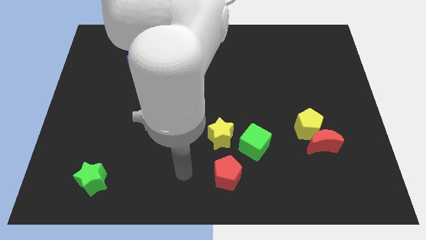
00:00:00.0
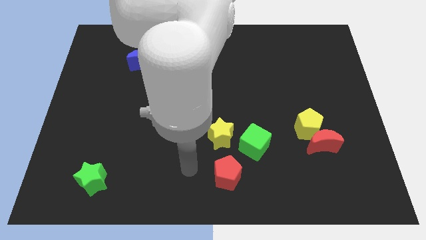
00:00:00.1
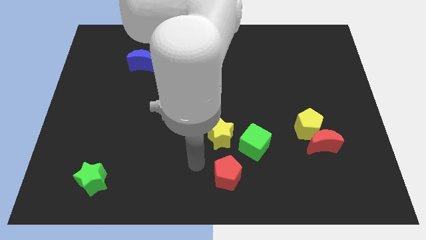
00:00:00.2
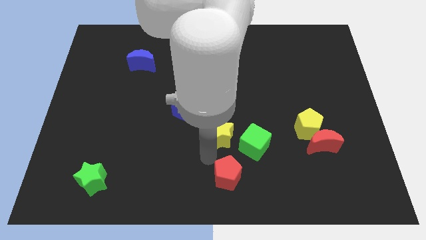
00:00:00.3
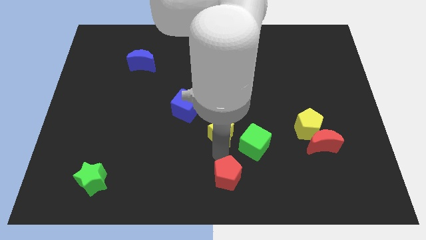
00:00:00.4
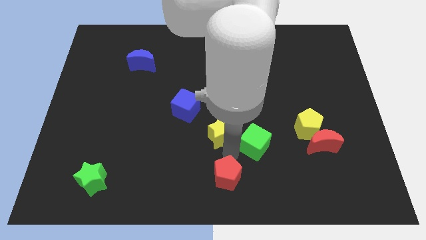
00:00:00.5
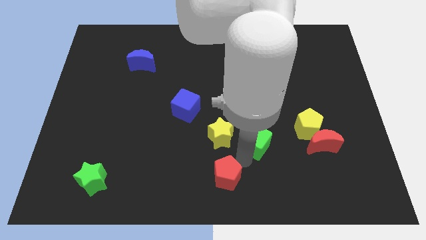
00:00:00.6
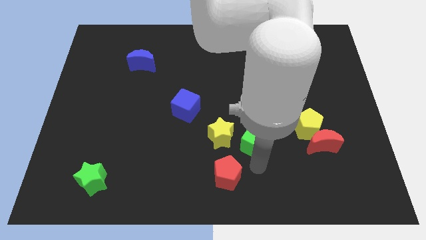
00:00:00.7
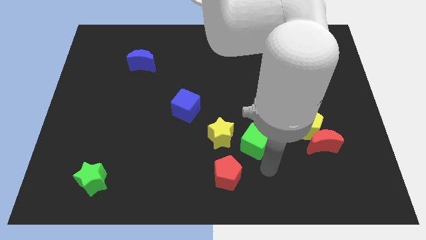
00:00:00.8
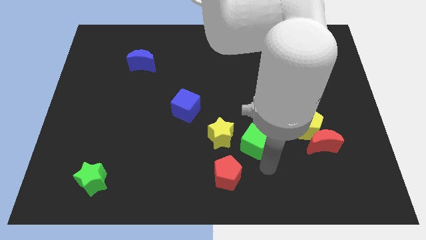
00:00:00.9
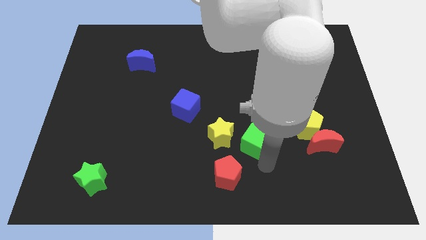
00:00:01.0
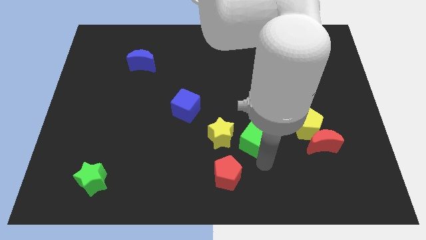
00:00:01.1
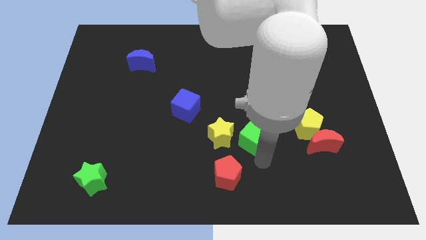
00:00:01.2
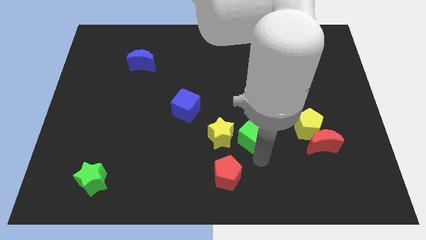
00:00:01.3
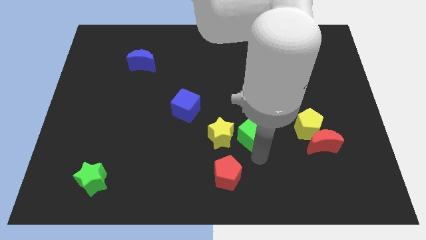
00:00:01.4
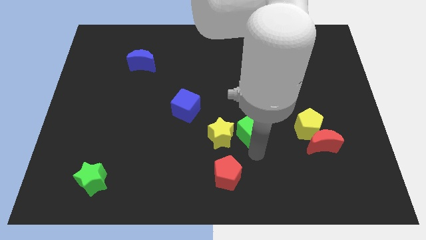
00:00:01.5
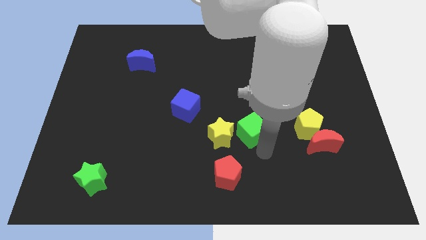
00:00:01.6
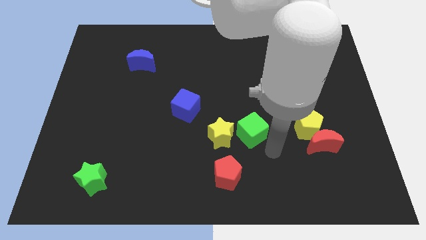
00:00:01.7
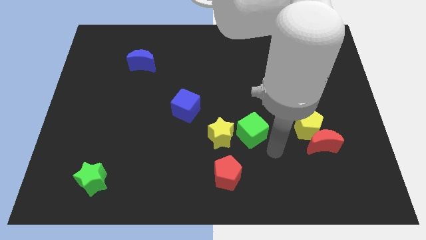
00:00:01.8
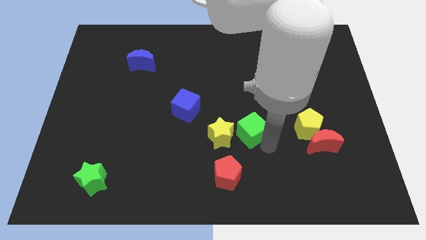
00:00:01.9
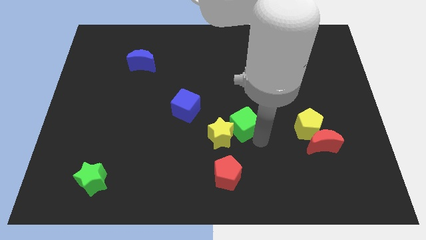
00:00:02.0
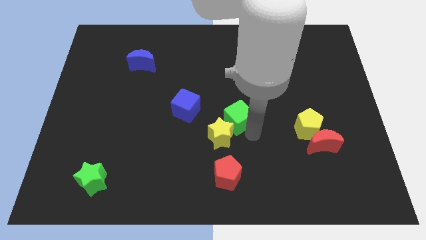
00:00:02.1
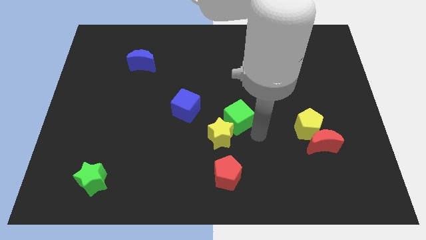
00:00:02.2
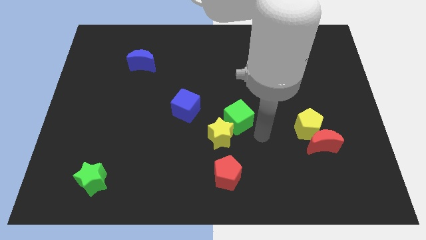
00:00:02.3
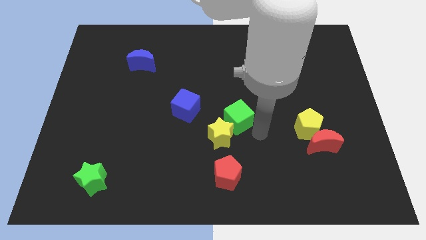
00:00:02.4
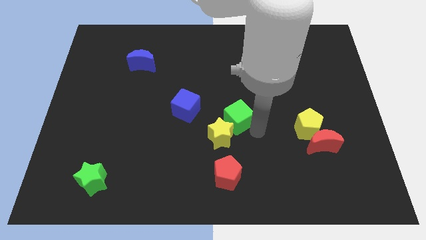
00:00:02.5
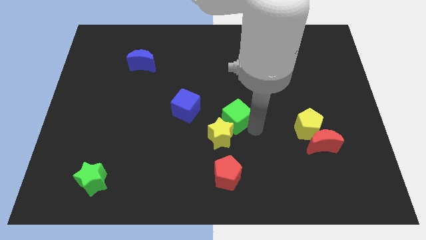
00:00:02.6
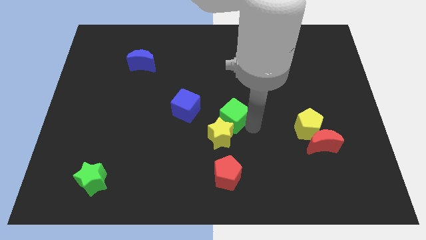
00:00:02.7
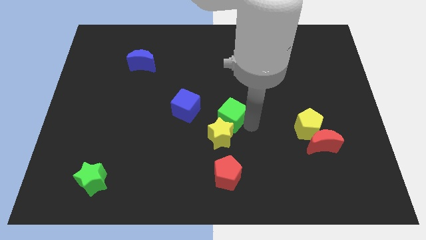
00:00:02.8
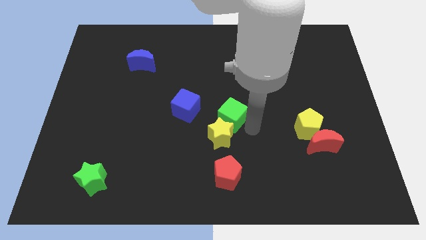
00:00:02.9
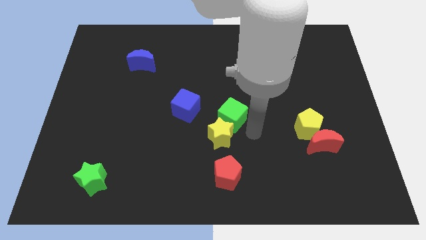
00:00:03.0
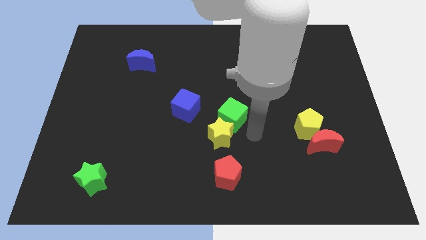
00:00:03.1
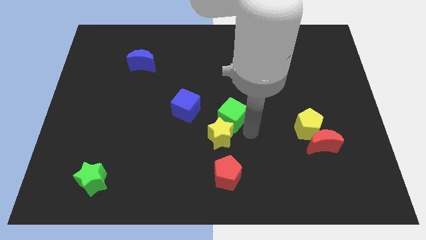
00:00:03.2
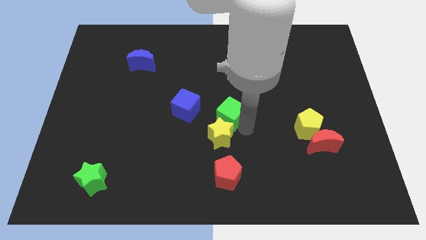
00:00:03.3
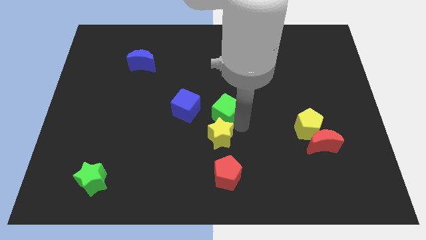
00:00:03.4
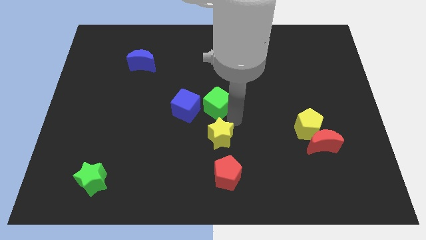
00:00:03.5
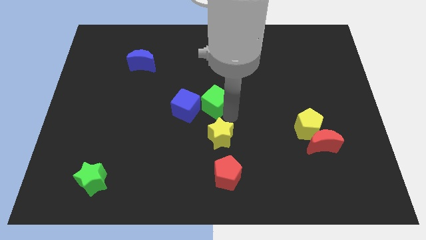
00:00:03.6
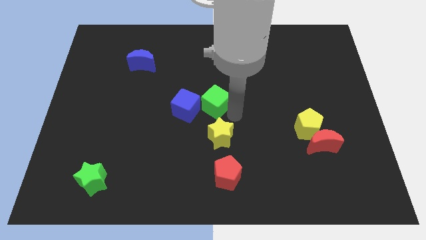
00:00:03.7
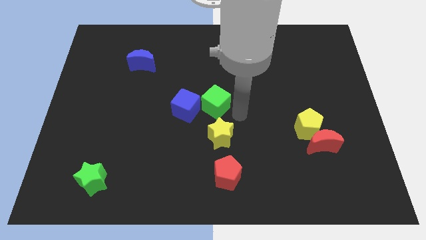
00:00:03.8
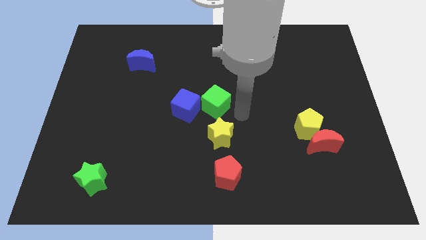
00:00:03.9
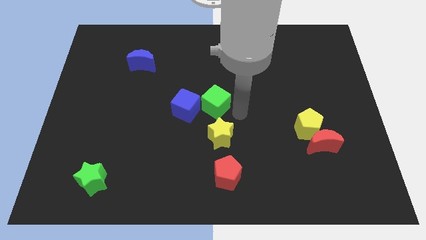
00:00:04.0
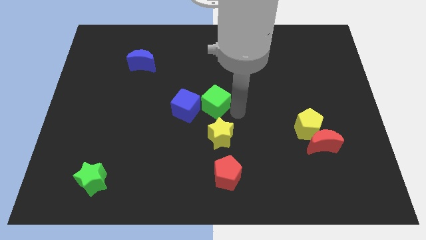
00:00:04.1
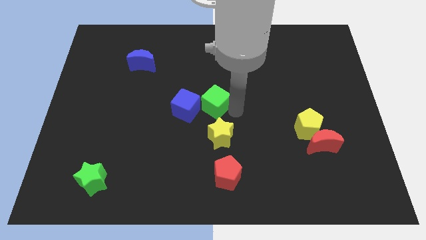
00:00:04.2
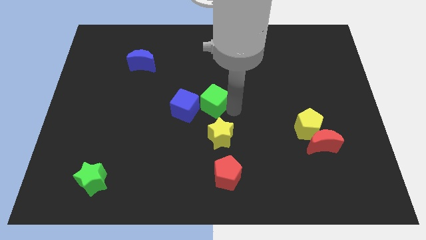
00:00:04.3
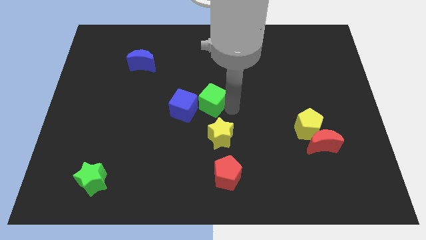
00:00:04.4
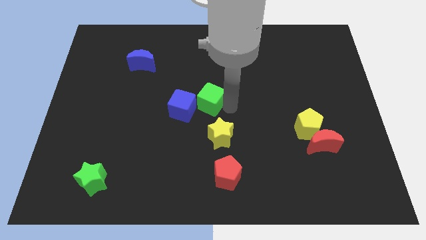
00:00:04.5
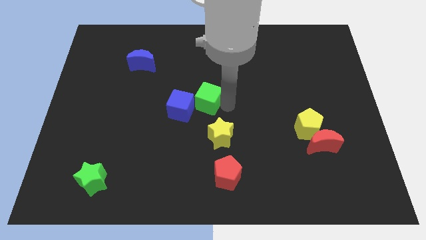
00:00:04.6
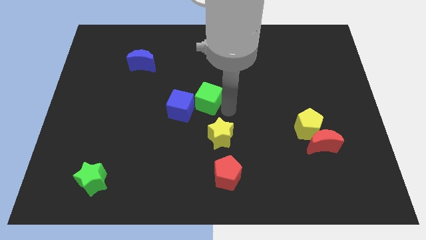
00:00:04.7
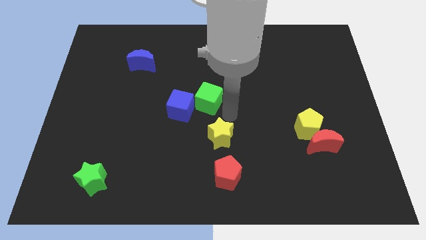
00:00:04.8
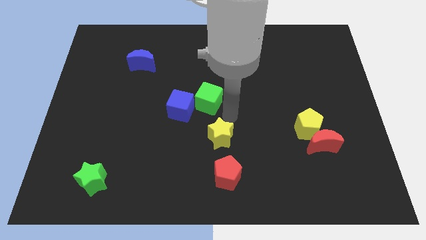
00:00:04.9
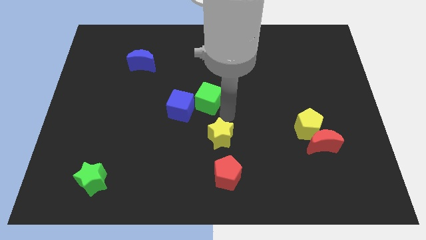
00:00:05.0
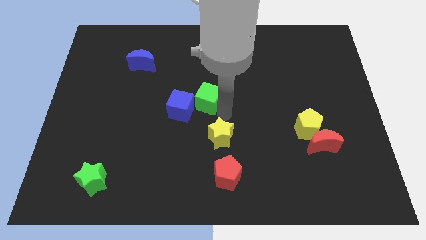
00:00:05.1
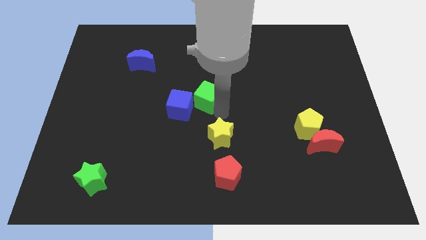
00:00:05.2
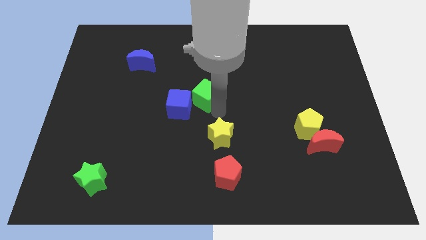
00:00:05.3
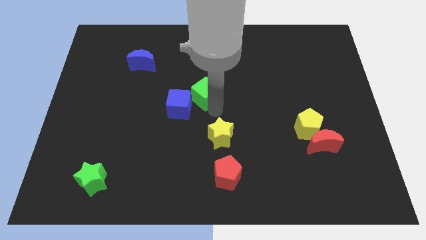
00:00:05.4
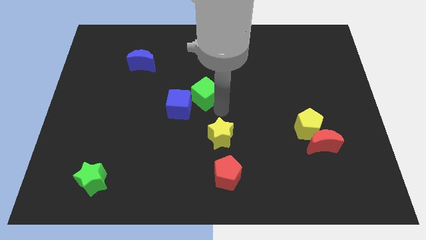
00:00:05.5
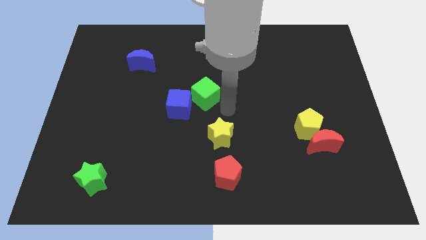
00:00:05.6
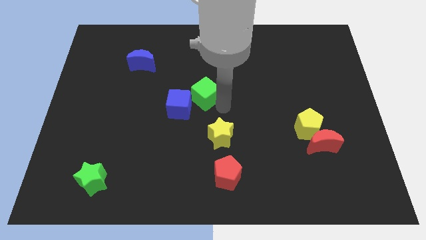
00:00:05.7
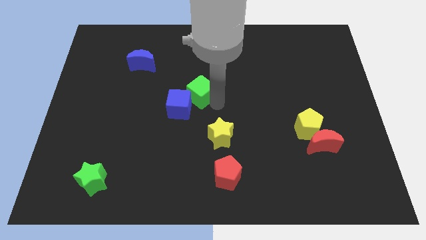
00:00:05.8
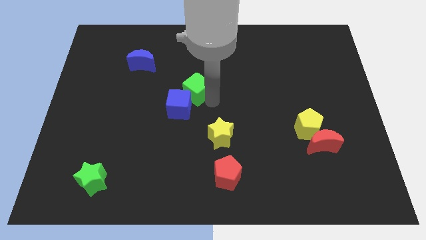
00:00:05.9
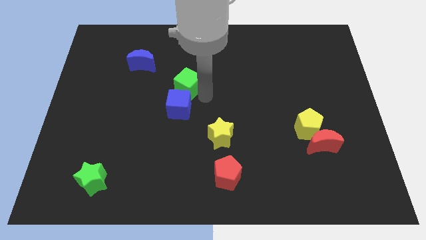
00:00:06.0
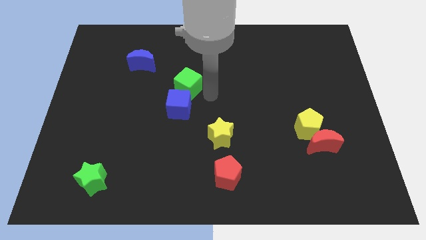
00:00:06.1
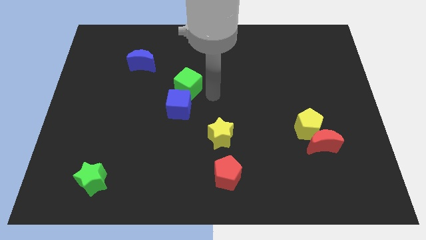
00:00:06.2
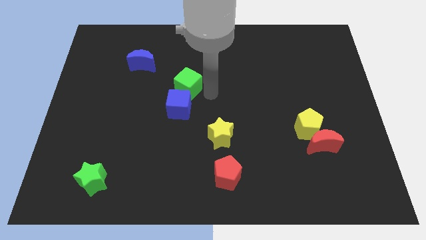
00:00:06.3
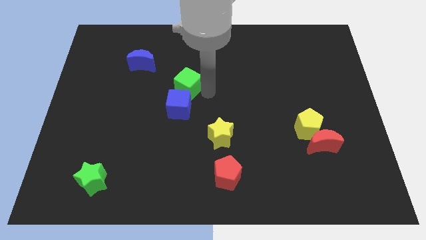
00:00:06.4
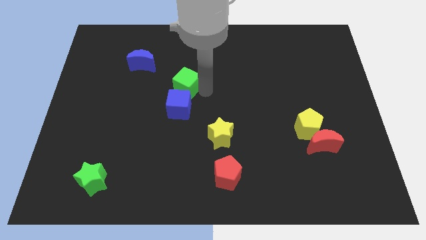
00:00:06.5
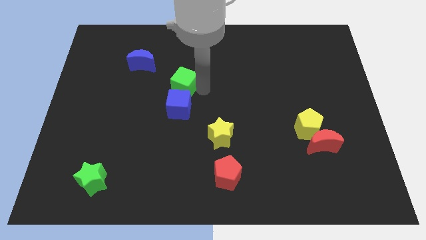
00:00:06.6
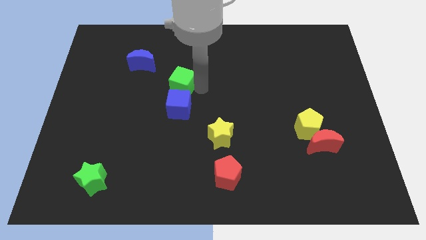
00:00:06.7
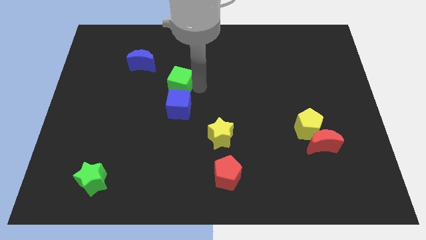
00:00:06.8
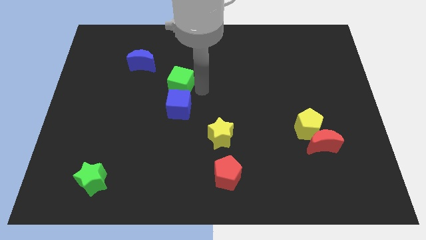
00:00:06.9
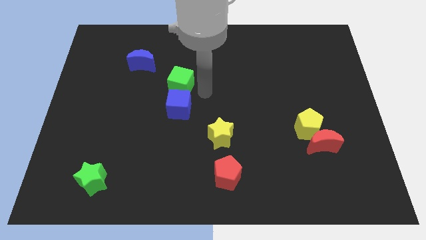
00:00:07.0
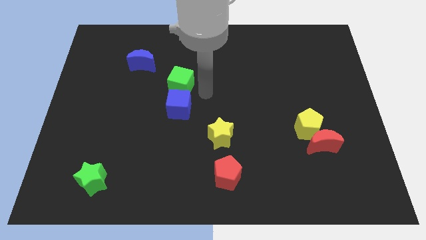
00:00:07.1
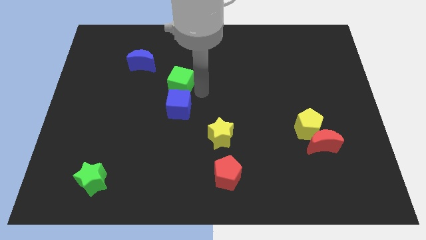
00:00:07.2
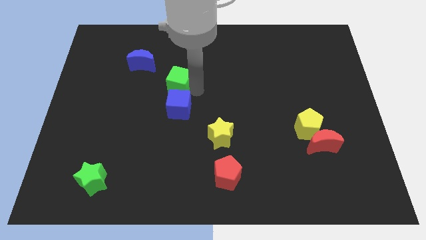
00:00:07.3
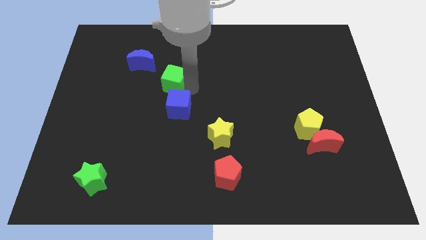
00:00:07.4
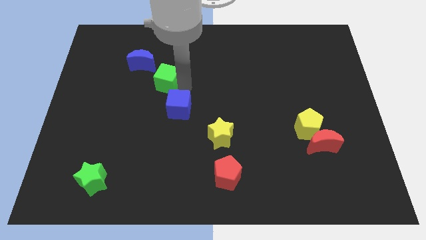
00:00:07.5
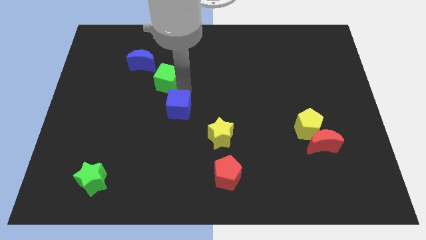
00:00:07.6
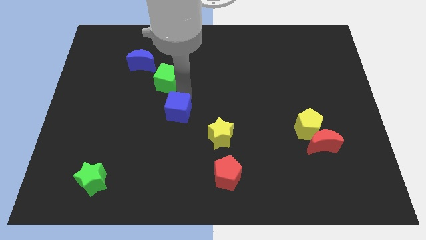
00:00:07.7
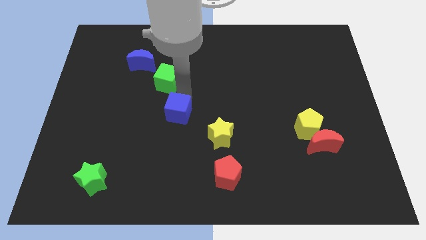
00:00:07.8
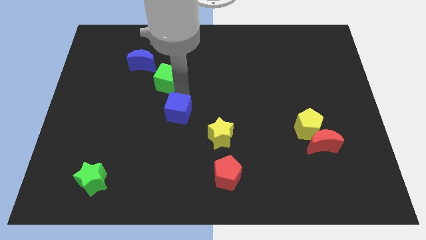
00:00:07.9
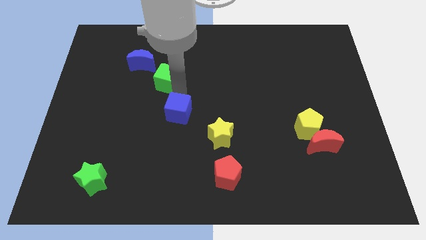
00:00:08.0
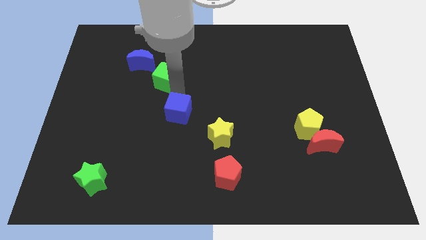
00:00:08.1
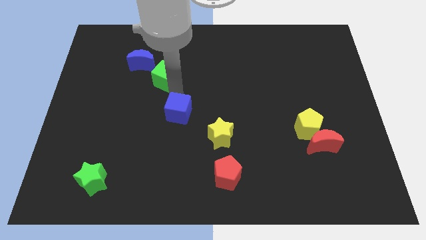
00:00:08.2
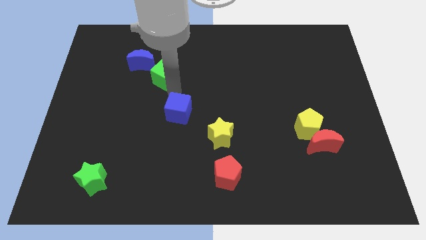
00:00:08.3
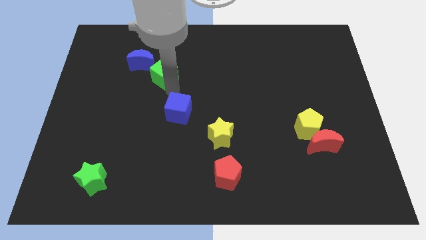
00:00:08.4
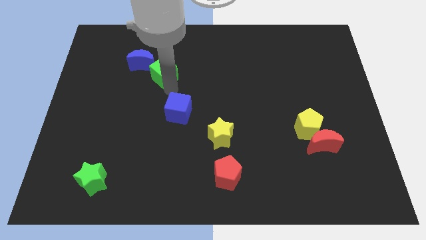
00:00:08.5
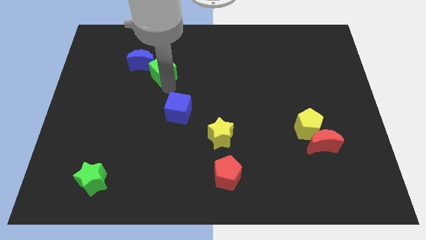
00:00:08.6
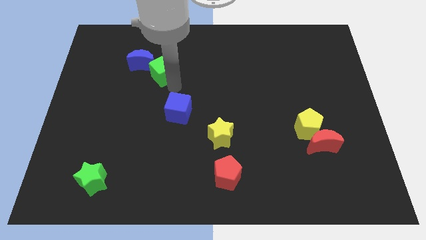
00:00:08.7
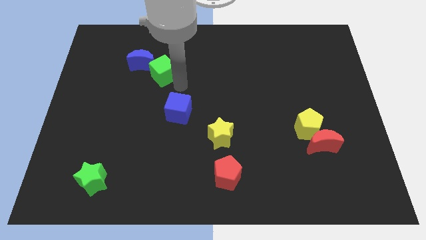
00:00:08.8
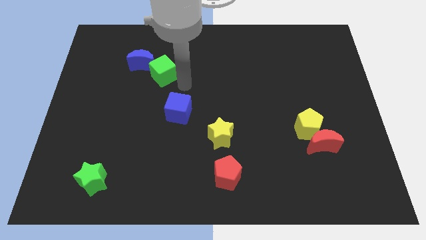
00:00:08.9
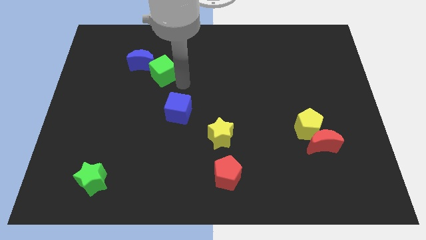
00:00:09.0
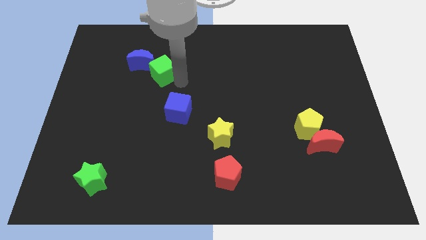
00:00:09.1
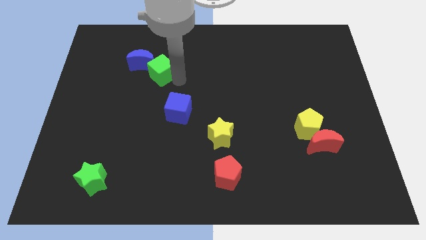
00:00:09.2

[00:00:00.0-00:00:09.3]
move the green cube towards the blue moon
